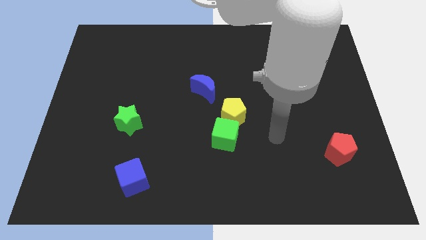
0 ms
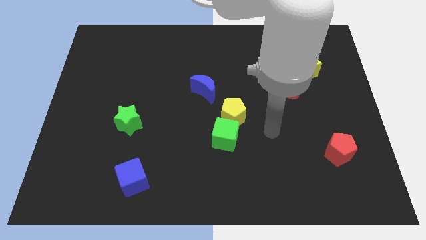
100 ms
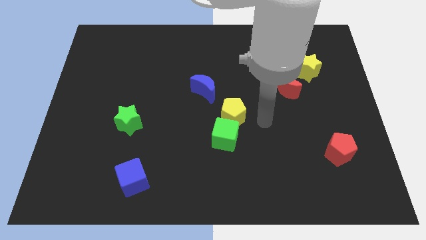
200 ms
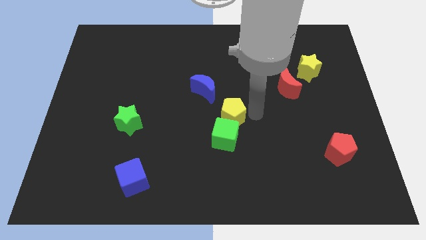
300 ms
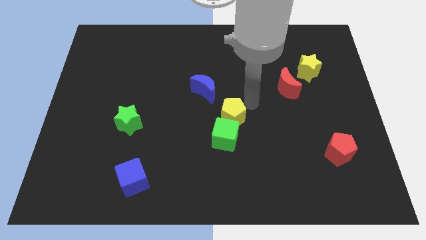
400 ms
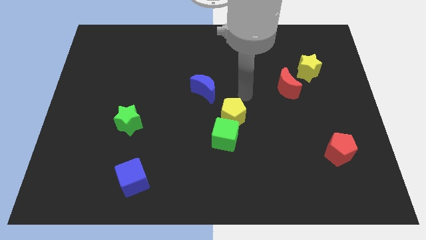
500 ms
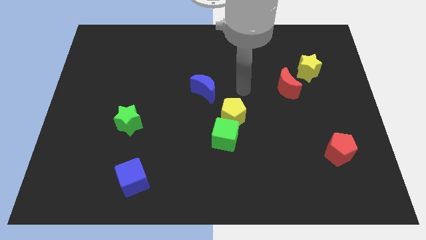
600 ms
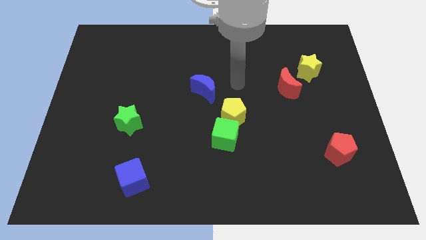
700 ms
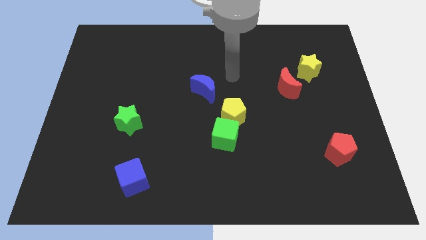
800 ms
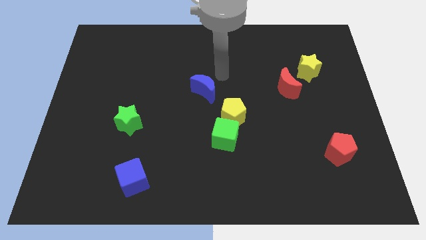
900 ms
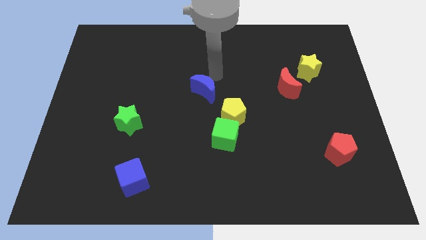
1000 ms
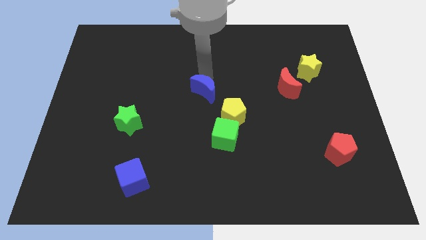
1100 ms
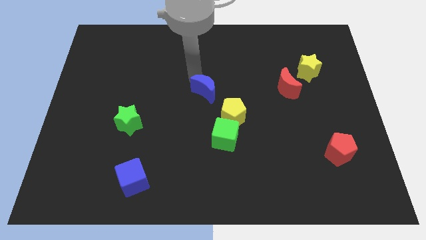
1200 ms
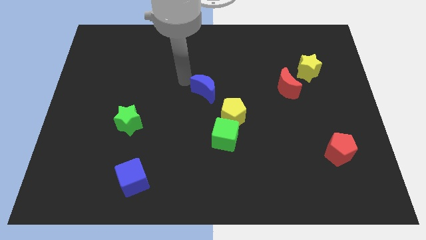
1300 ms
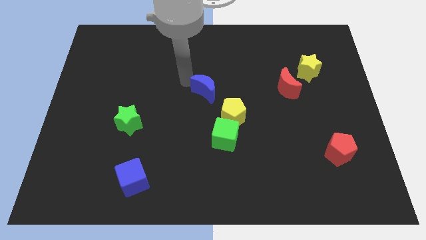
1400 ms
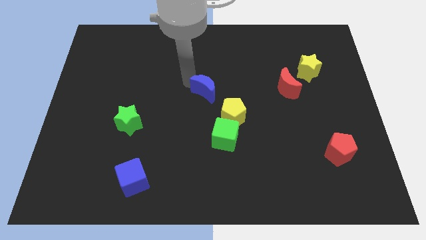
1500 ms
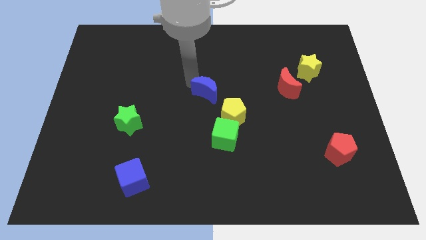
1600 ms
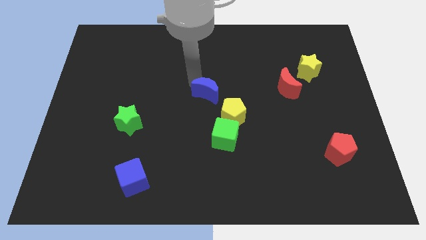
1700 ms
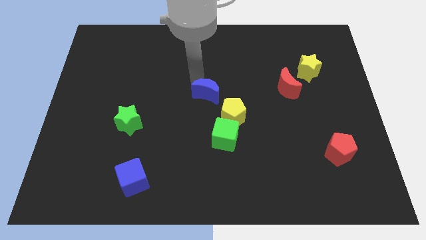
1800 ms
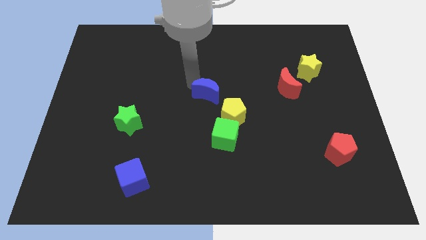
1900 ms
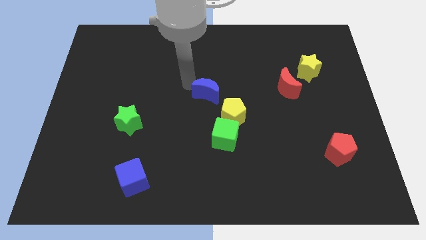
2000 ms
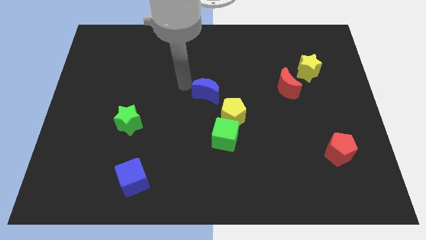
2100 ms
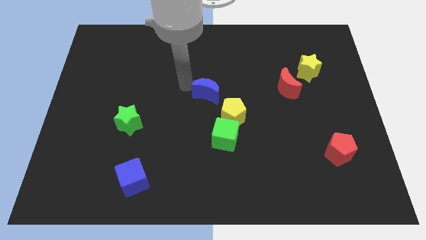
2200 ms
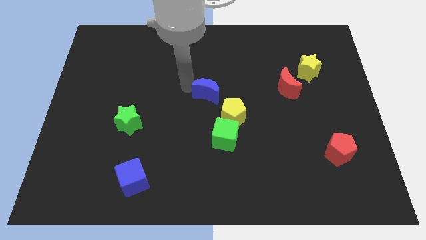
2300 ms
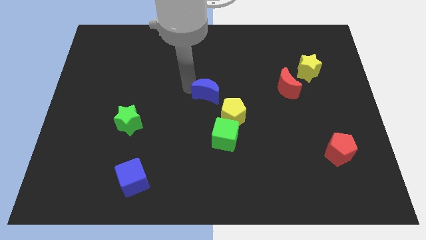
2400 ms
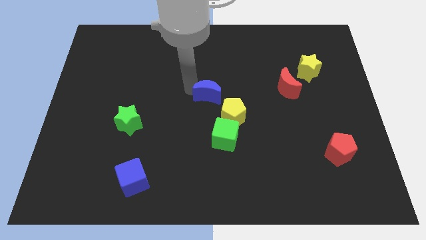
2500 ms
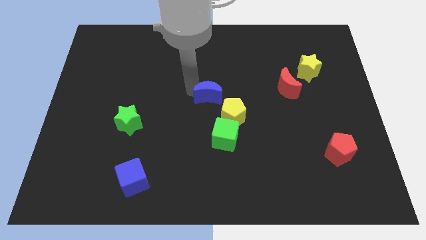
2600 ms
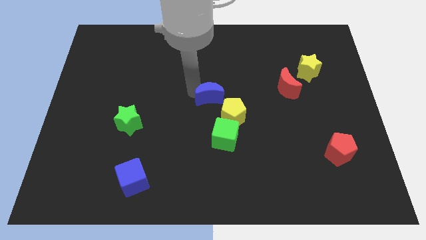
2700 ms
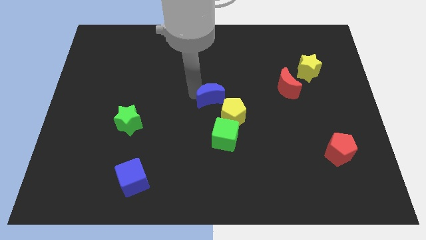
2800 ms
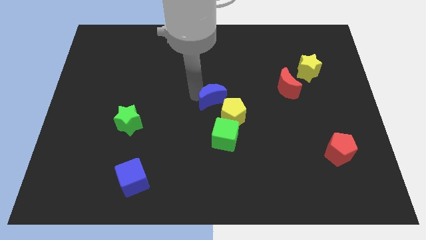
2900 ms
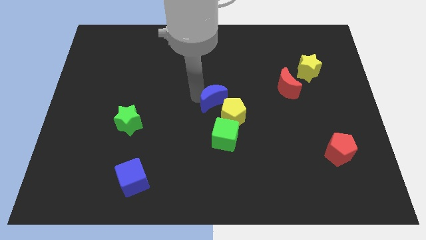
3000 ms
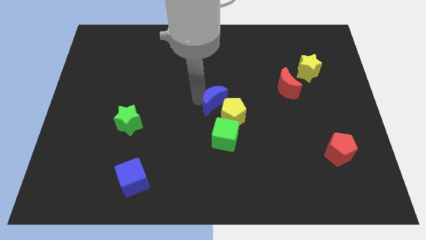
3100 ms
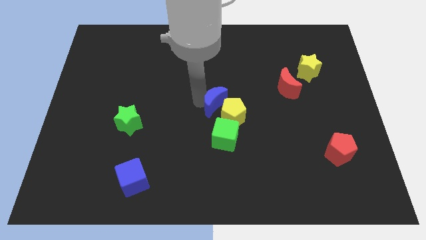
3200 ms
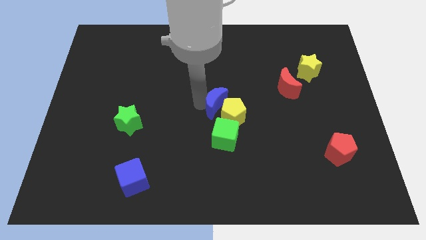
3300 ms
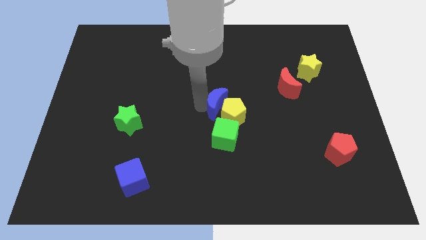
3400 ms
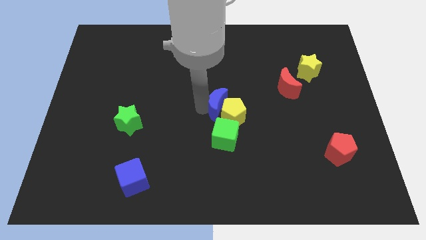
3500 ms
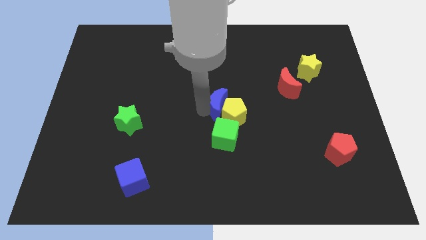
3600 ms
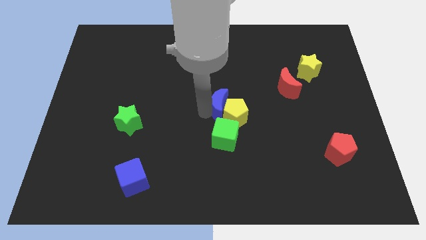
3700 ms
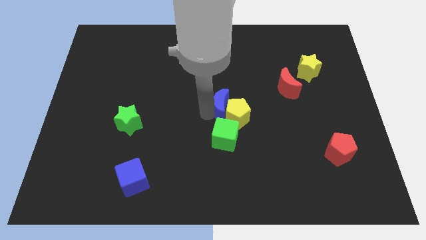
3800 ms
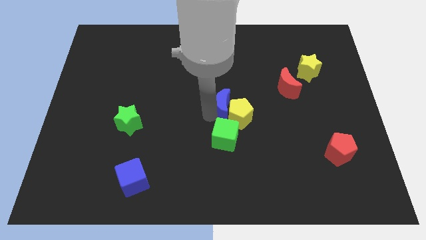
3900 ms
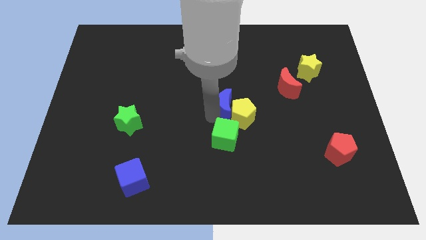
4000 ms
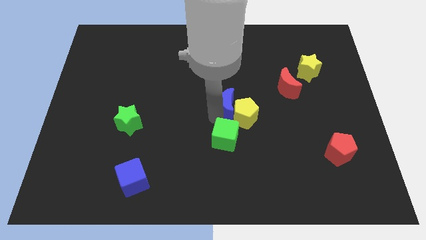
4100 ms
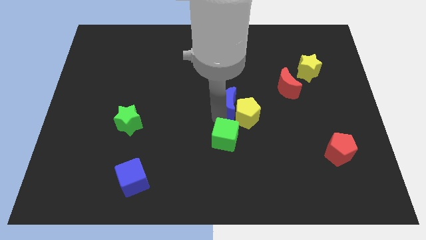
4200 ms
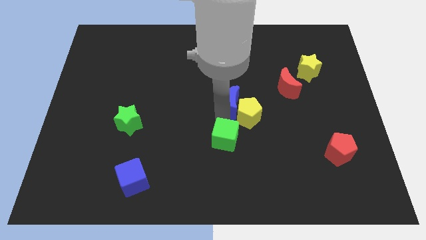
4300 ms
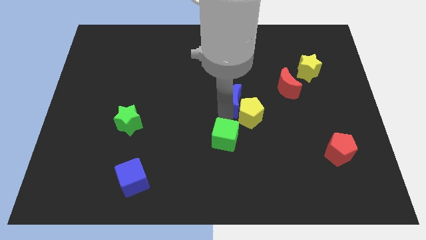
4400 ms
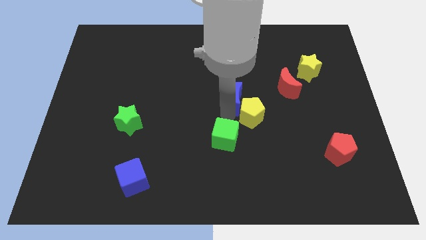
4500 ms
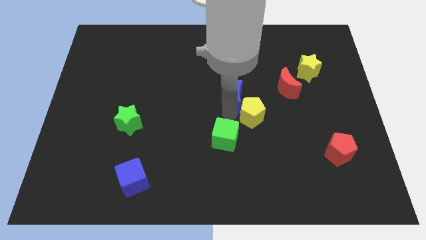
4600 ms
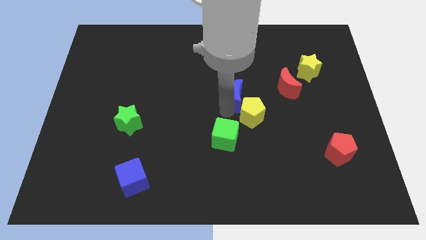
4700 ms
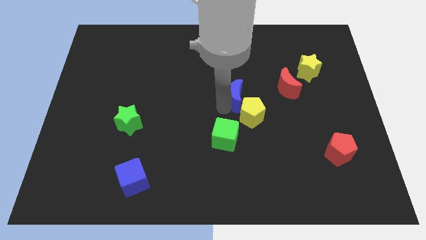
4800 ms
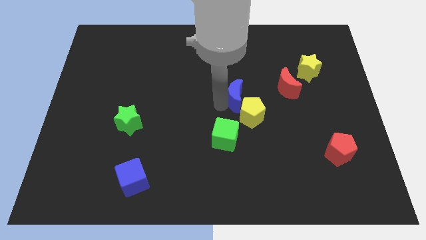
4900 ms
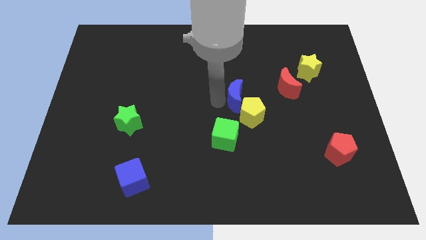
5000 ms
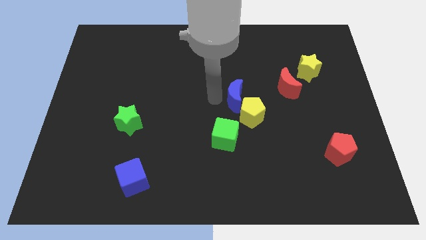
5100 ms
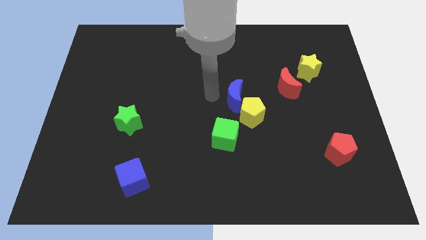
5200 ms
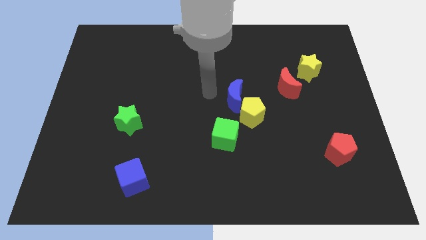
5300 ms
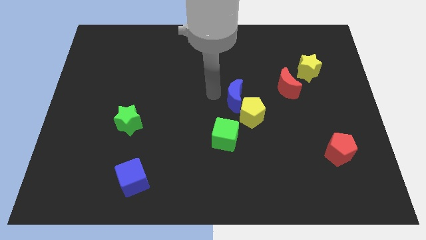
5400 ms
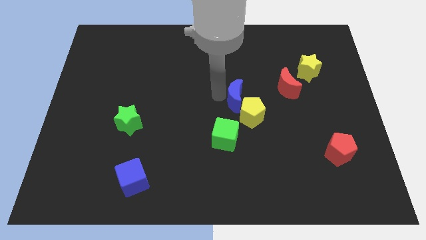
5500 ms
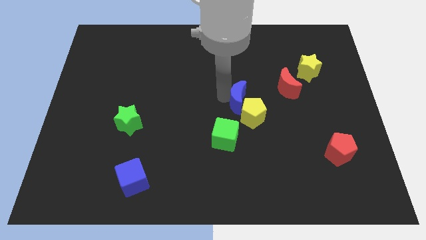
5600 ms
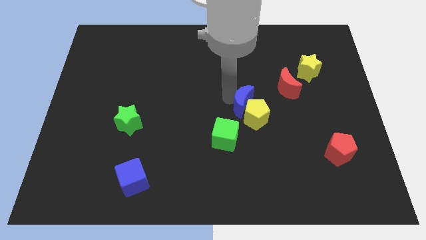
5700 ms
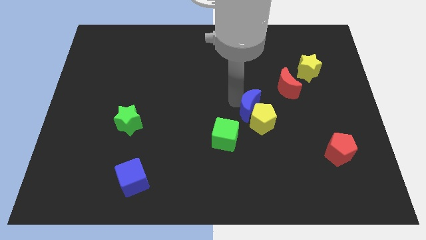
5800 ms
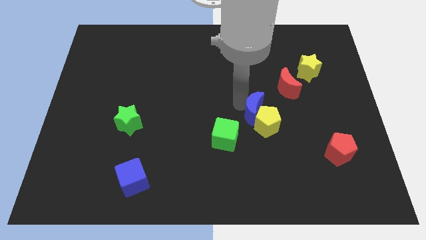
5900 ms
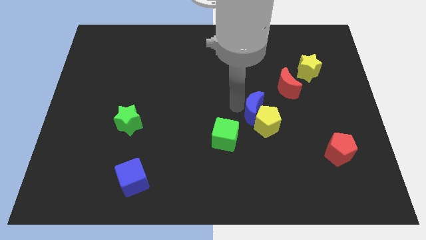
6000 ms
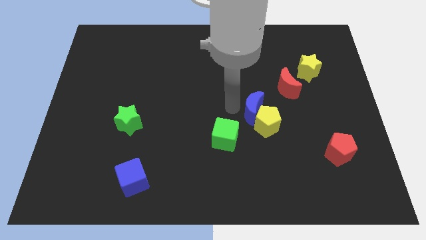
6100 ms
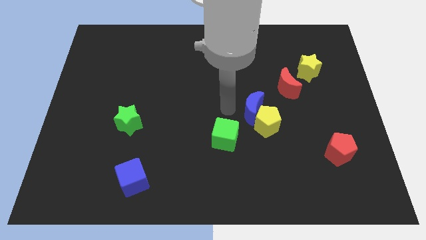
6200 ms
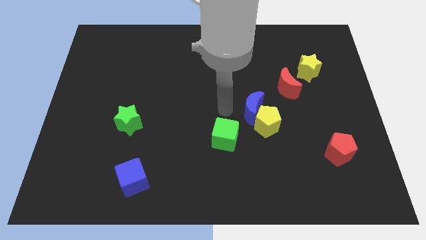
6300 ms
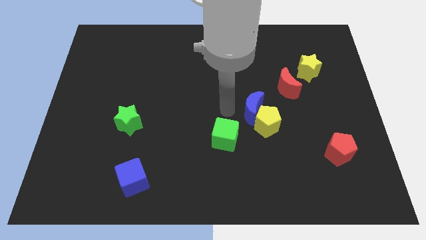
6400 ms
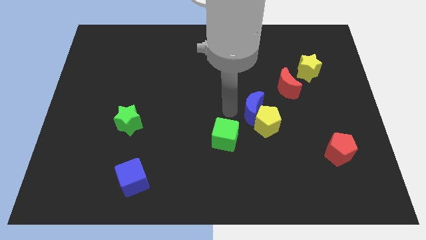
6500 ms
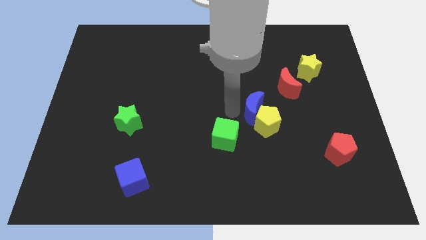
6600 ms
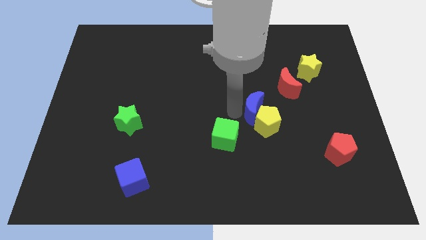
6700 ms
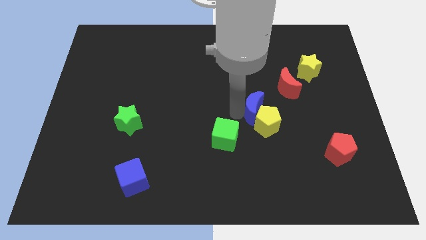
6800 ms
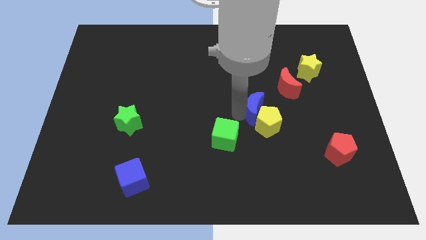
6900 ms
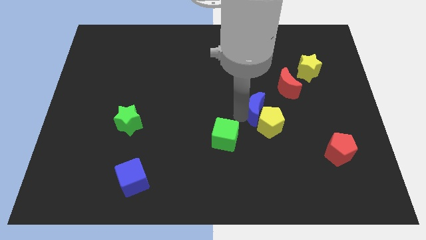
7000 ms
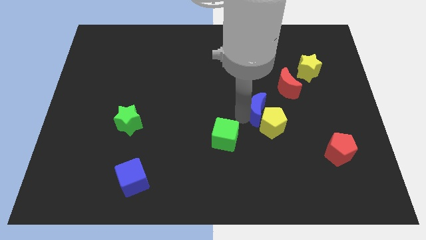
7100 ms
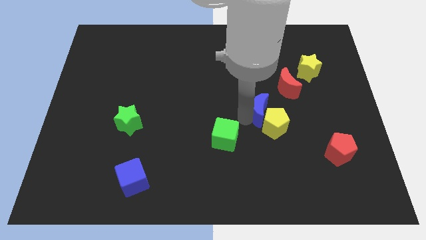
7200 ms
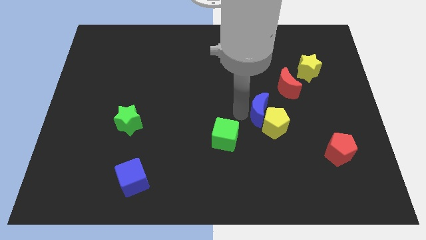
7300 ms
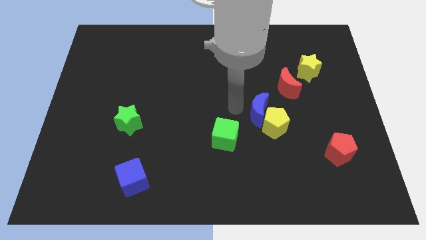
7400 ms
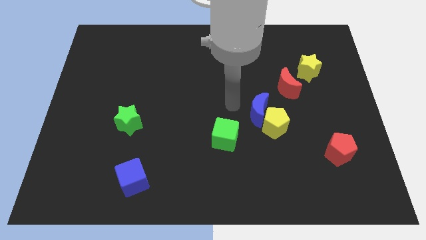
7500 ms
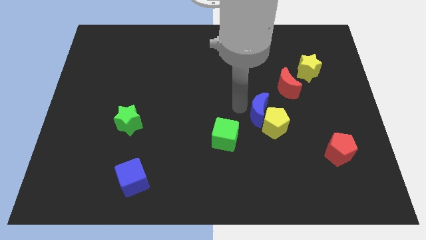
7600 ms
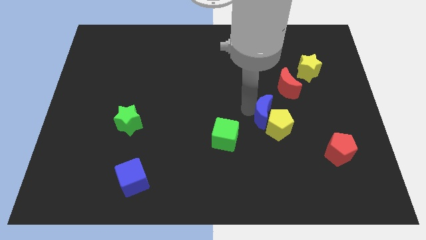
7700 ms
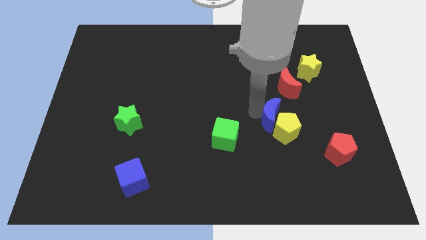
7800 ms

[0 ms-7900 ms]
put the blue moon to the bottom of the red moon
